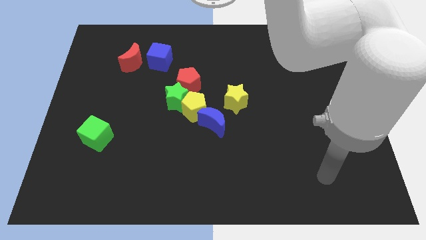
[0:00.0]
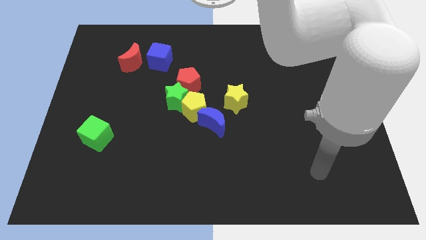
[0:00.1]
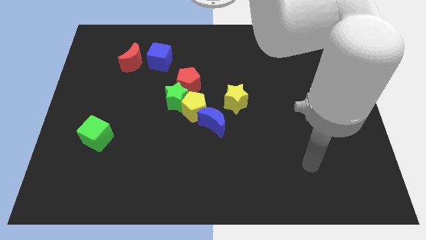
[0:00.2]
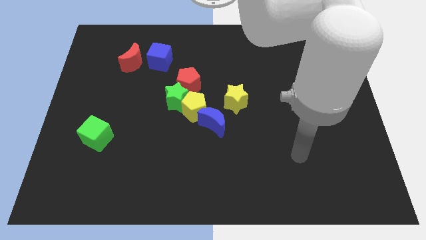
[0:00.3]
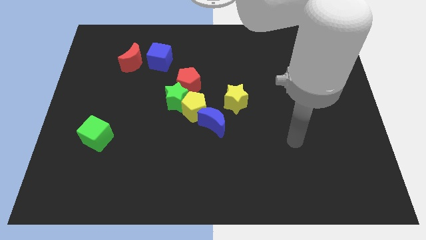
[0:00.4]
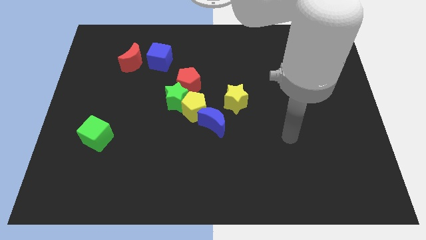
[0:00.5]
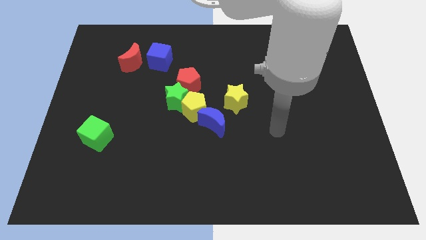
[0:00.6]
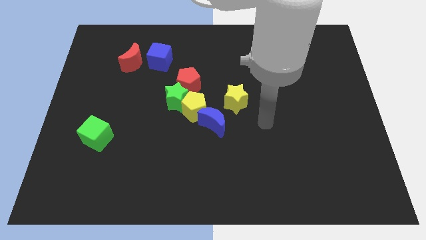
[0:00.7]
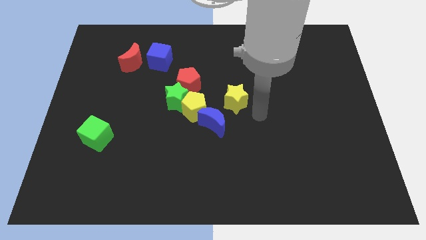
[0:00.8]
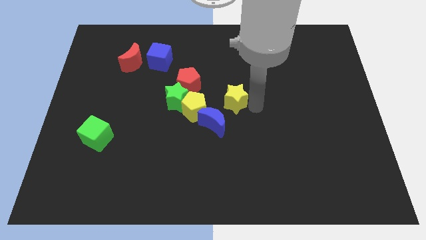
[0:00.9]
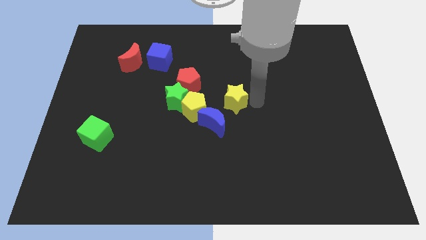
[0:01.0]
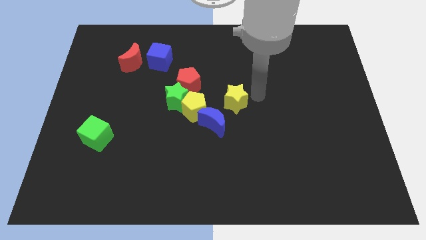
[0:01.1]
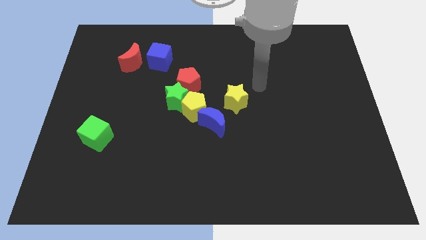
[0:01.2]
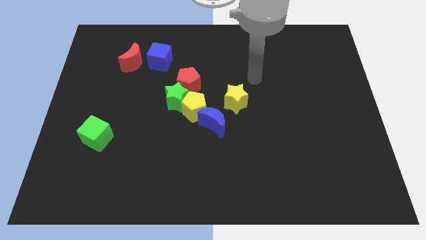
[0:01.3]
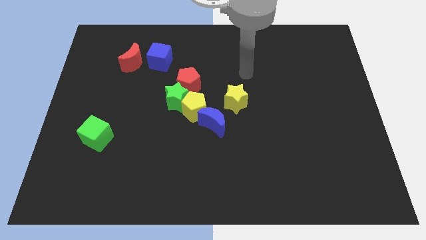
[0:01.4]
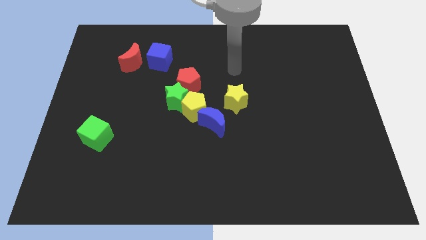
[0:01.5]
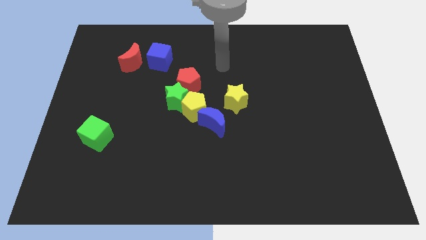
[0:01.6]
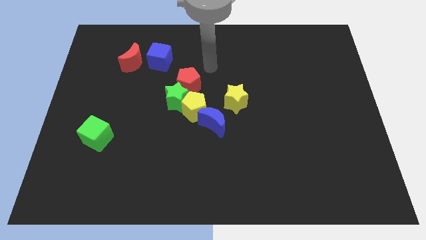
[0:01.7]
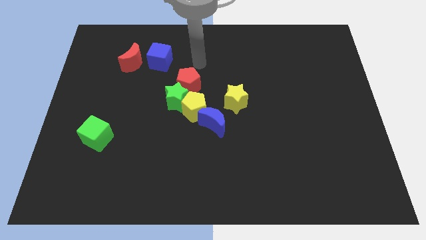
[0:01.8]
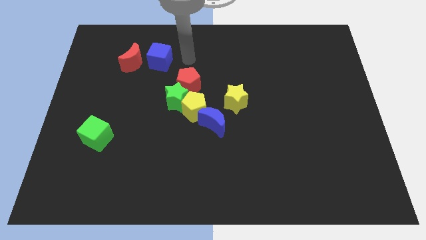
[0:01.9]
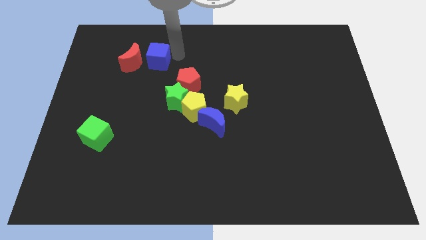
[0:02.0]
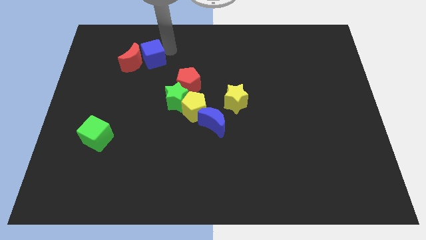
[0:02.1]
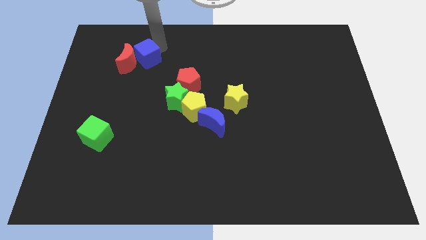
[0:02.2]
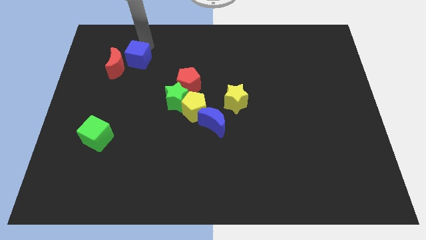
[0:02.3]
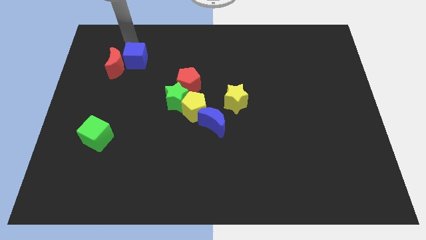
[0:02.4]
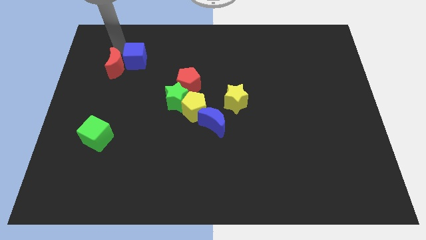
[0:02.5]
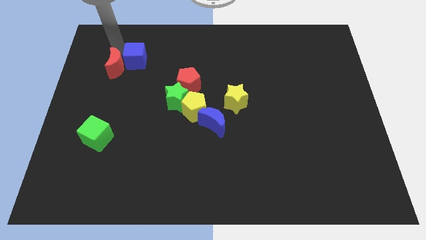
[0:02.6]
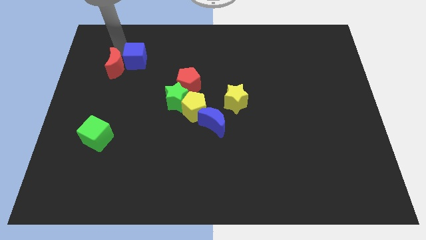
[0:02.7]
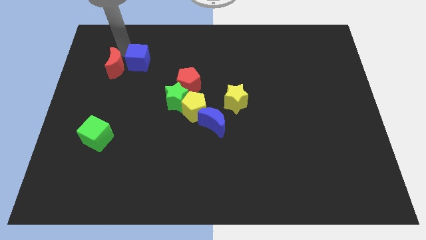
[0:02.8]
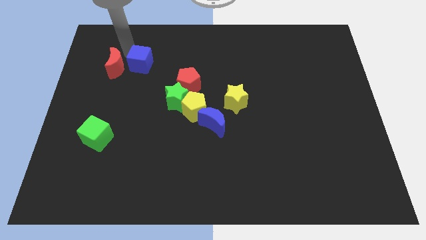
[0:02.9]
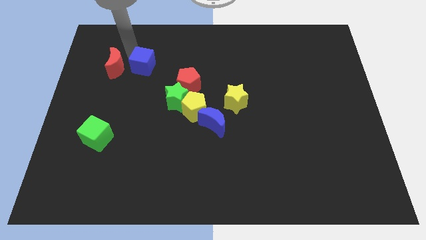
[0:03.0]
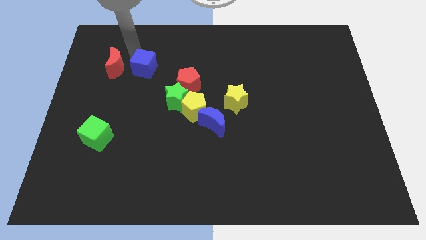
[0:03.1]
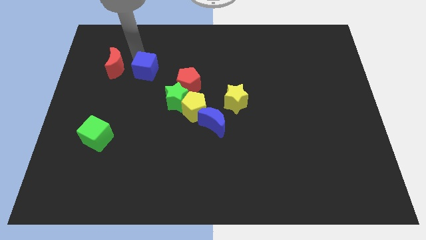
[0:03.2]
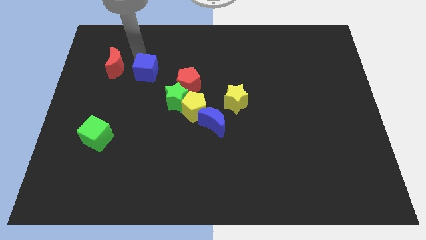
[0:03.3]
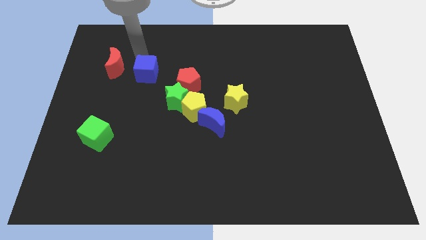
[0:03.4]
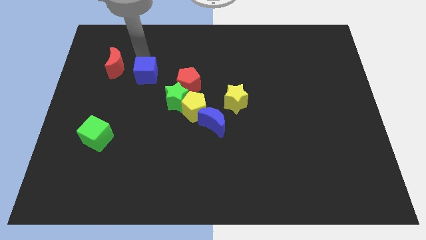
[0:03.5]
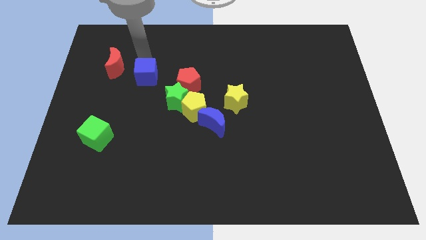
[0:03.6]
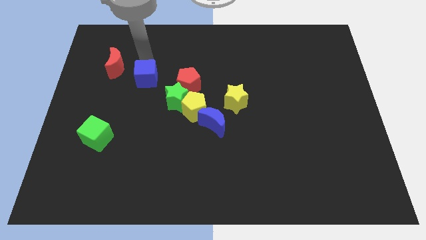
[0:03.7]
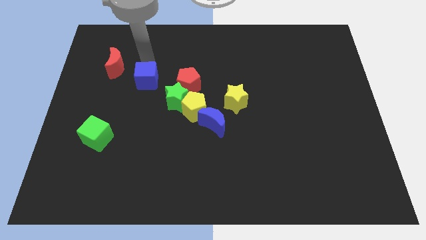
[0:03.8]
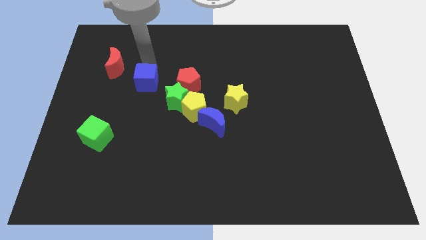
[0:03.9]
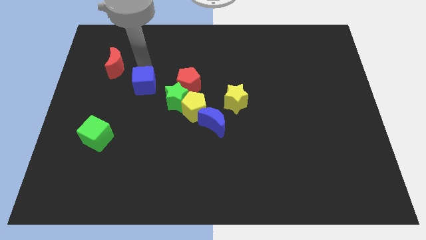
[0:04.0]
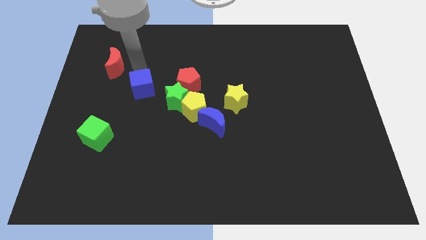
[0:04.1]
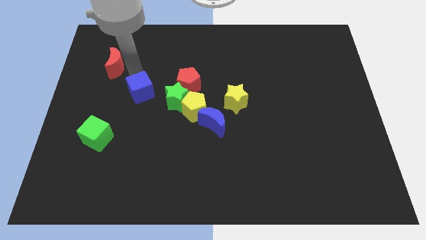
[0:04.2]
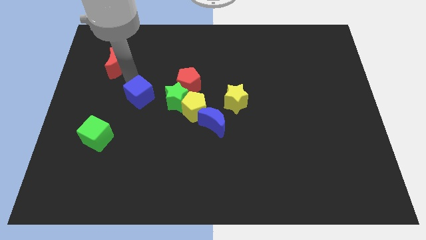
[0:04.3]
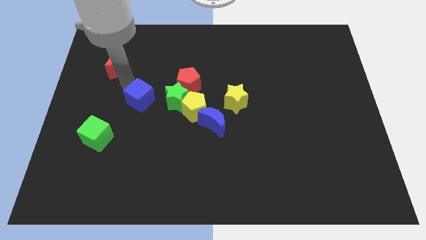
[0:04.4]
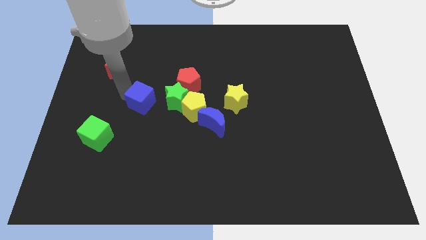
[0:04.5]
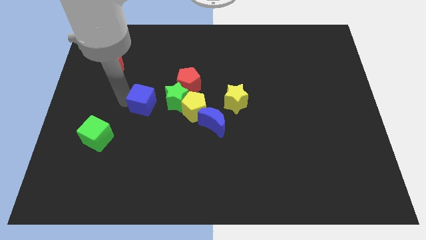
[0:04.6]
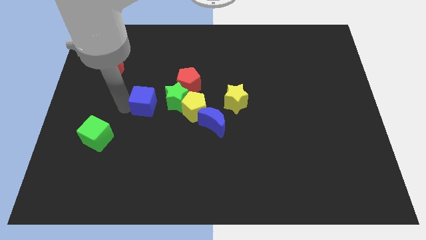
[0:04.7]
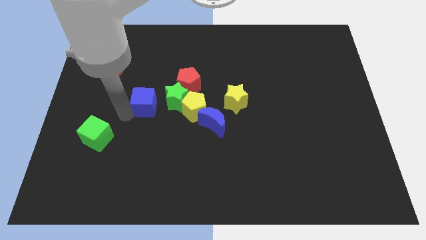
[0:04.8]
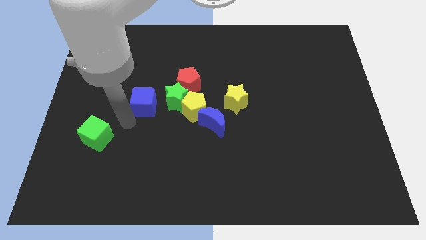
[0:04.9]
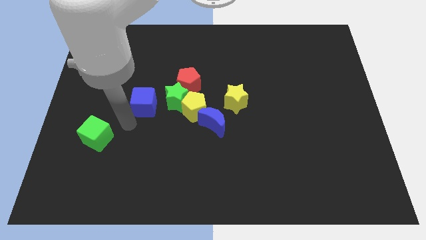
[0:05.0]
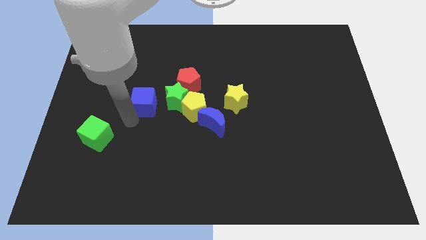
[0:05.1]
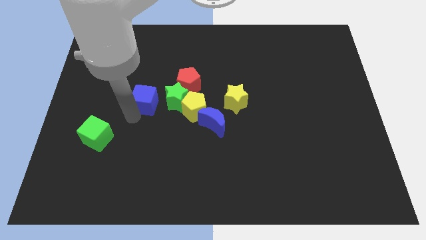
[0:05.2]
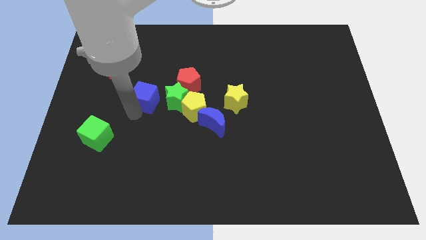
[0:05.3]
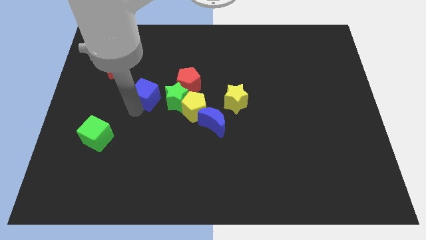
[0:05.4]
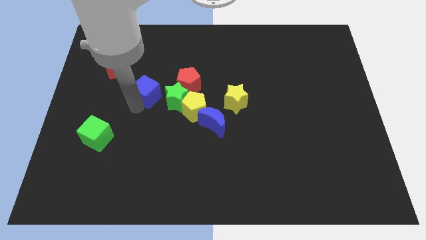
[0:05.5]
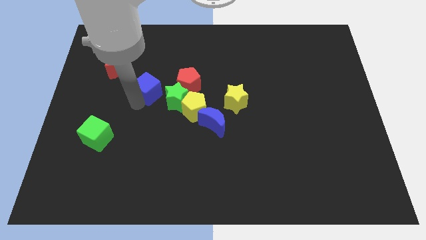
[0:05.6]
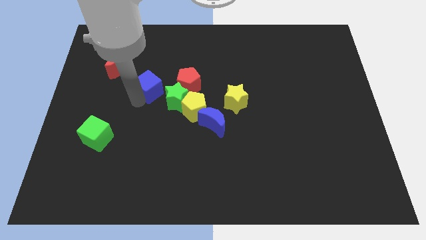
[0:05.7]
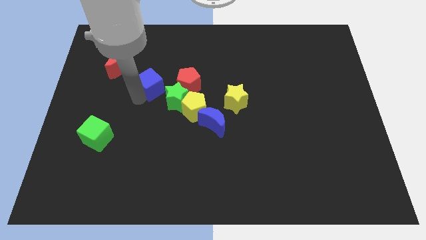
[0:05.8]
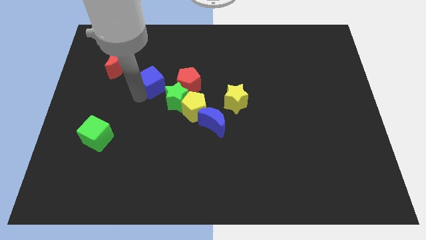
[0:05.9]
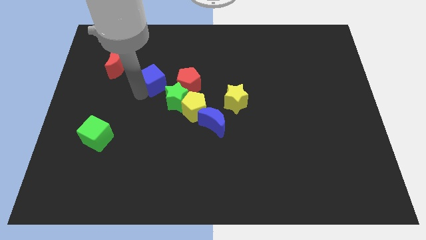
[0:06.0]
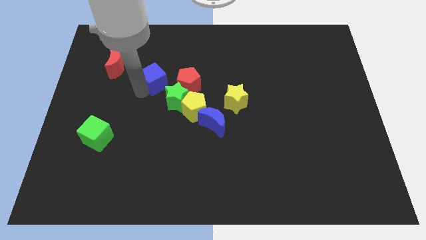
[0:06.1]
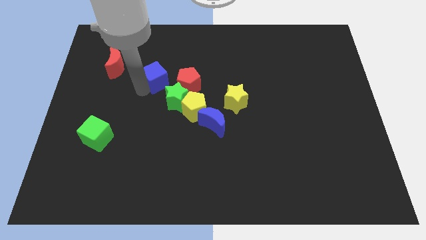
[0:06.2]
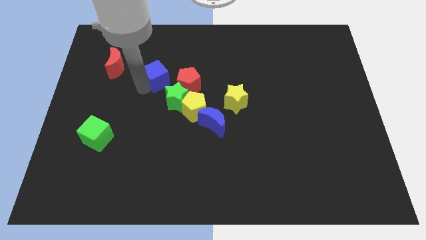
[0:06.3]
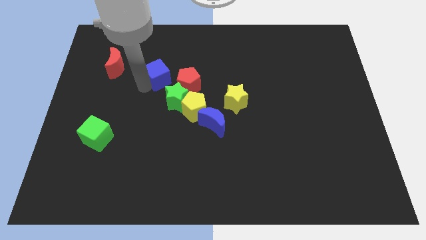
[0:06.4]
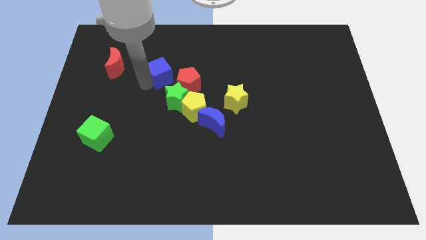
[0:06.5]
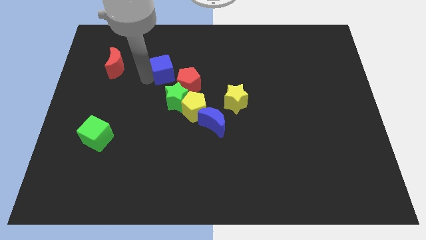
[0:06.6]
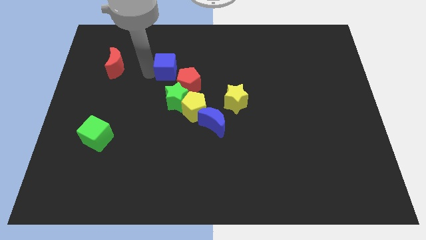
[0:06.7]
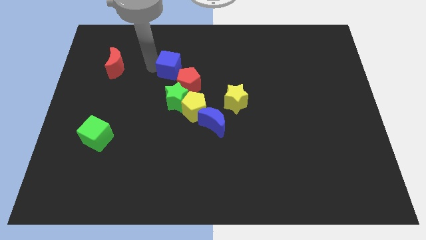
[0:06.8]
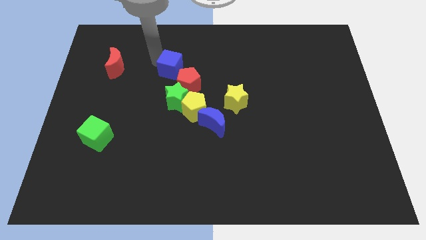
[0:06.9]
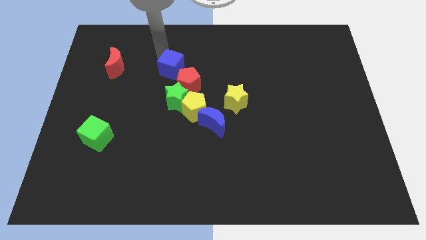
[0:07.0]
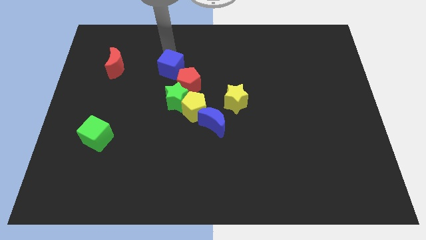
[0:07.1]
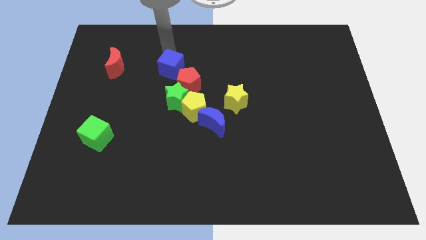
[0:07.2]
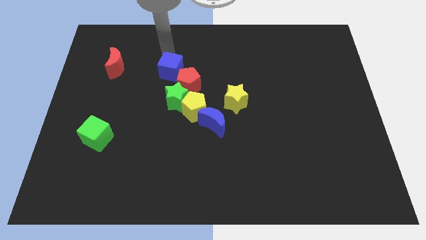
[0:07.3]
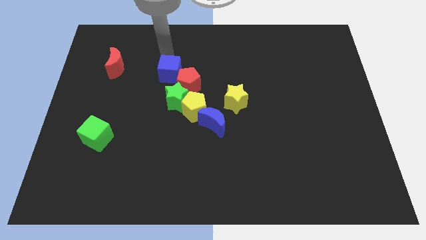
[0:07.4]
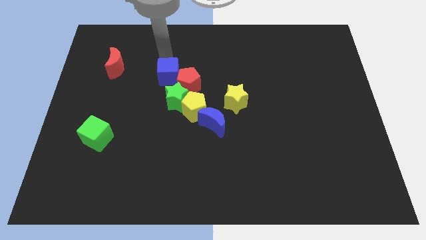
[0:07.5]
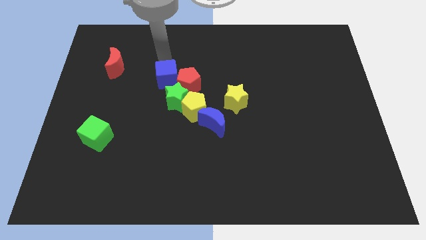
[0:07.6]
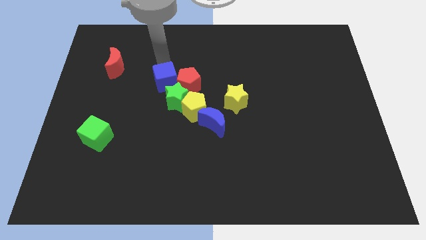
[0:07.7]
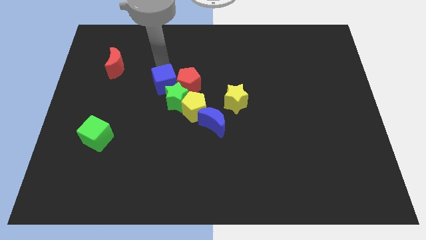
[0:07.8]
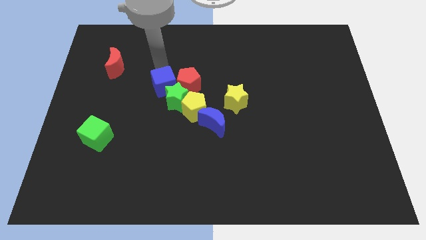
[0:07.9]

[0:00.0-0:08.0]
slide the blue cube next to the green star
